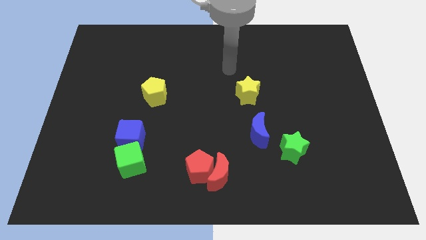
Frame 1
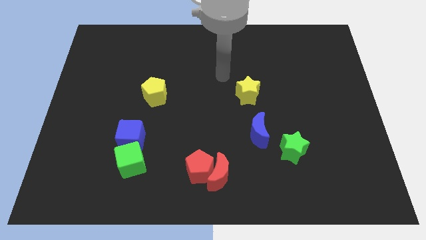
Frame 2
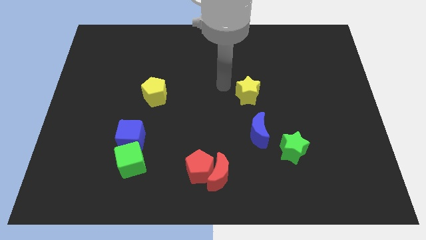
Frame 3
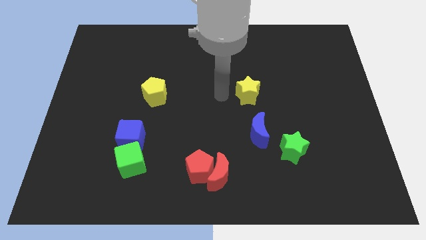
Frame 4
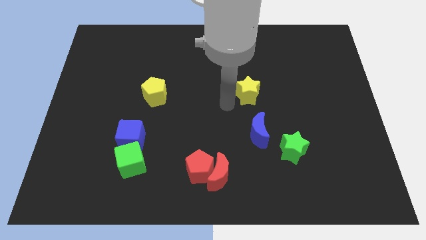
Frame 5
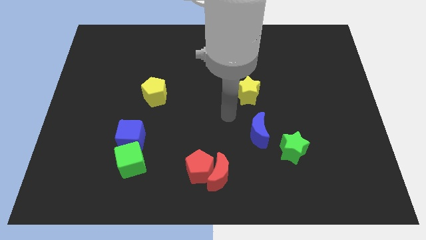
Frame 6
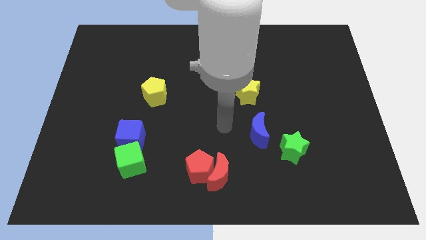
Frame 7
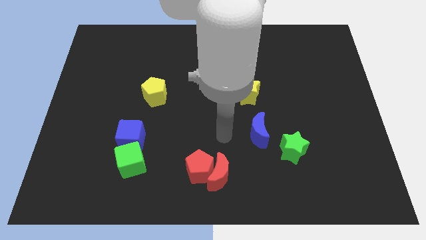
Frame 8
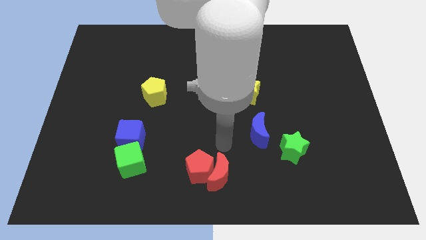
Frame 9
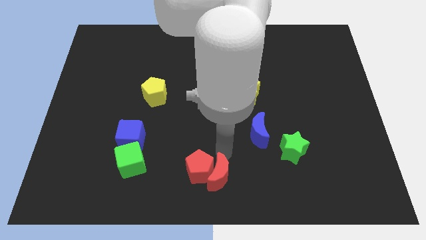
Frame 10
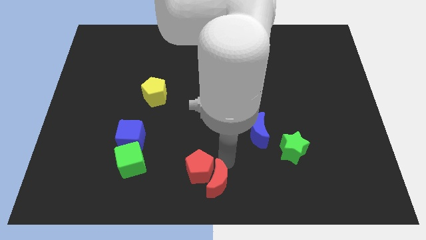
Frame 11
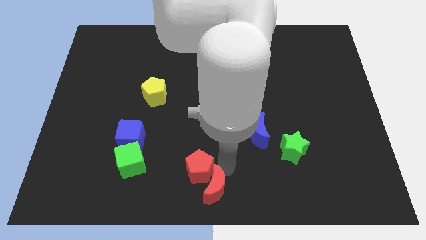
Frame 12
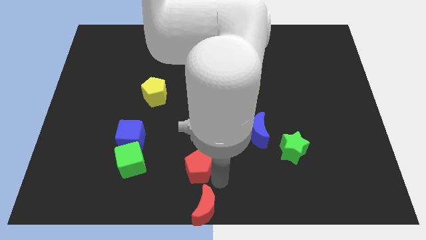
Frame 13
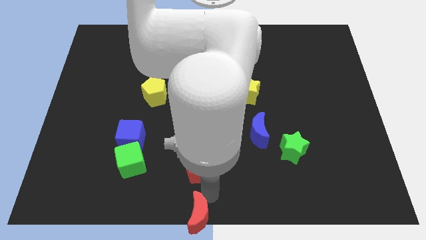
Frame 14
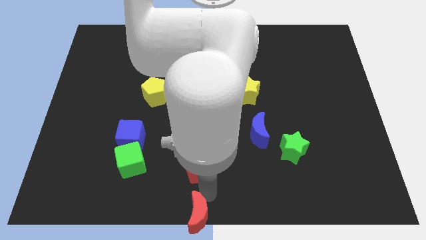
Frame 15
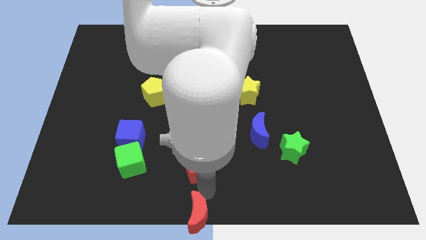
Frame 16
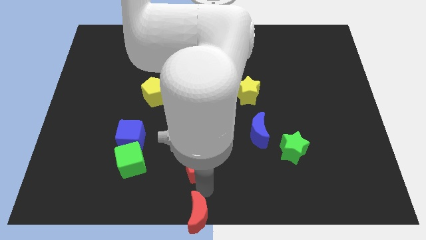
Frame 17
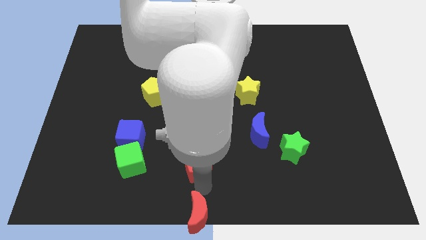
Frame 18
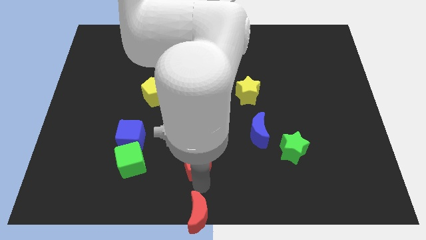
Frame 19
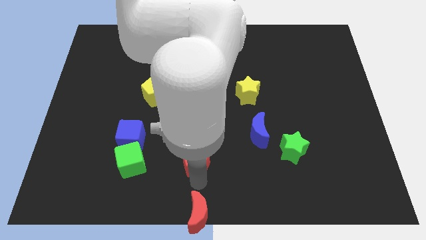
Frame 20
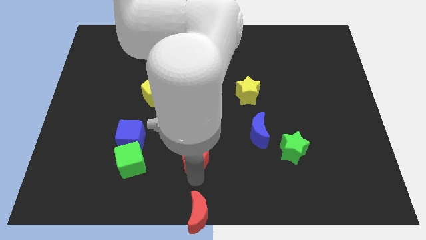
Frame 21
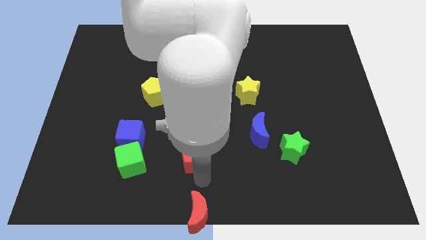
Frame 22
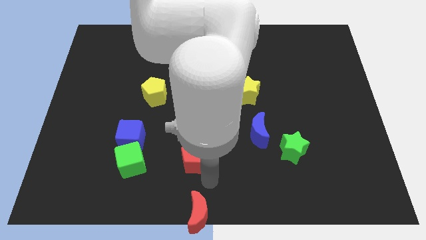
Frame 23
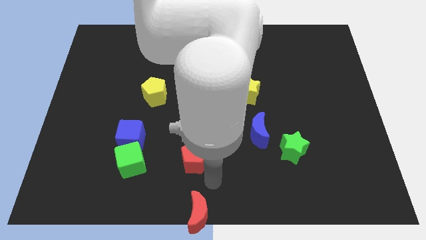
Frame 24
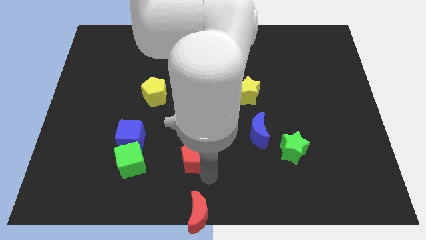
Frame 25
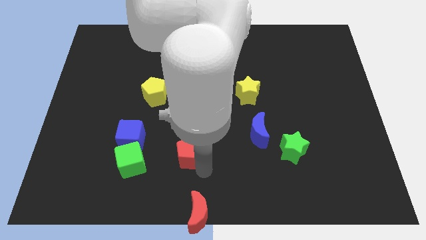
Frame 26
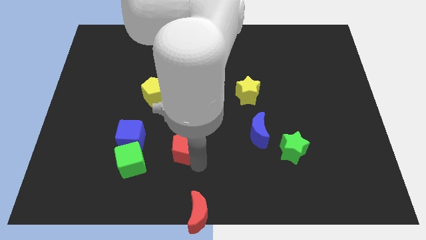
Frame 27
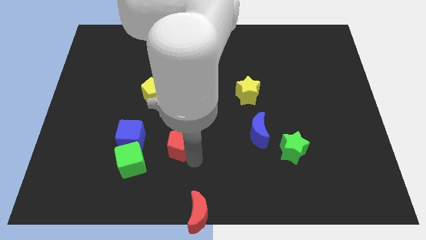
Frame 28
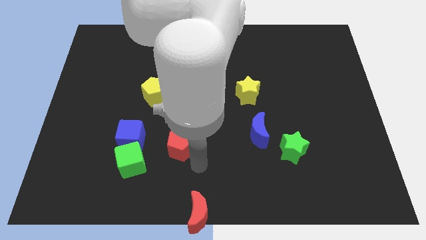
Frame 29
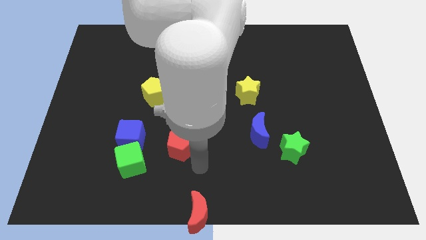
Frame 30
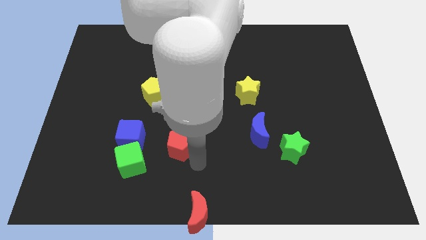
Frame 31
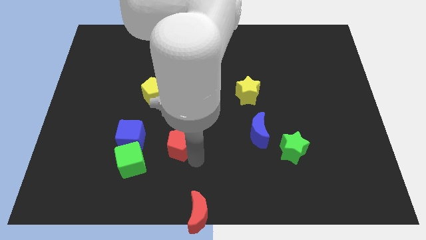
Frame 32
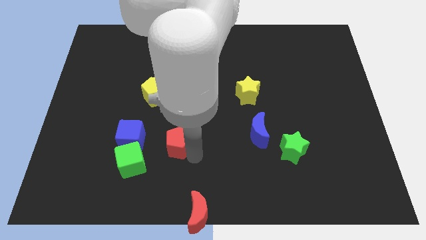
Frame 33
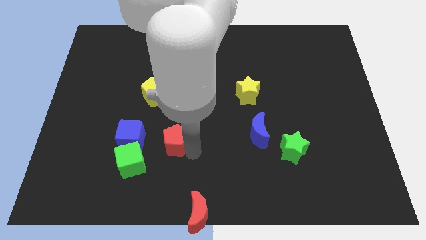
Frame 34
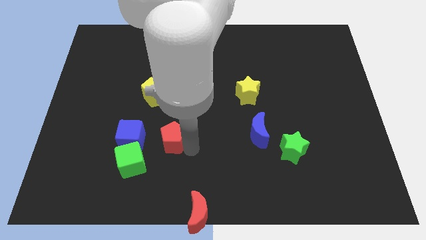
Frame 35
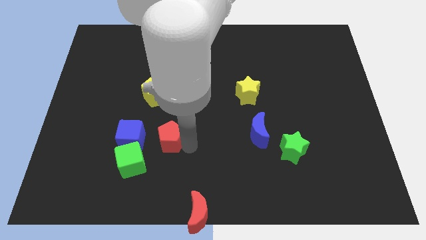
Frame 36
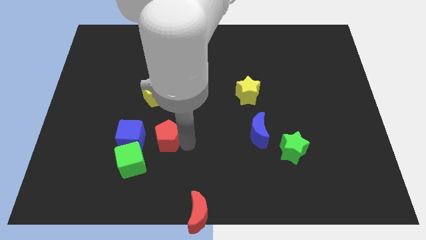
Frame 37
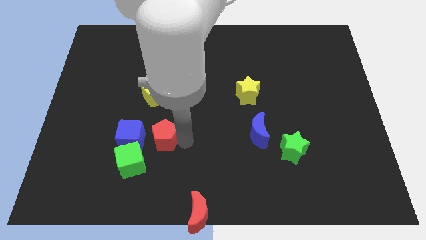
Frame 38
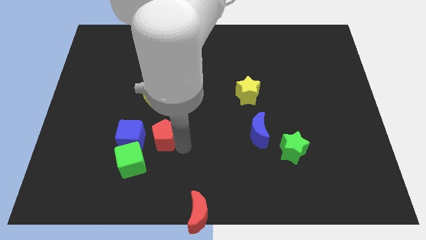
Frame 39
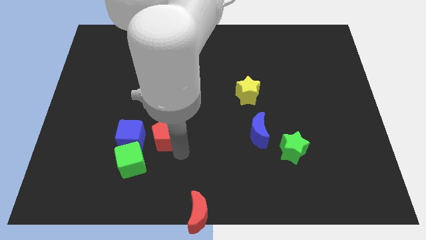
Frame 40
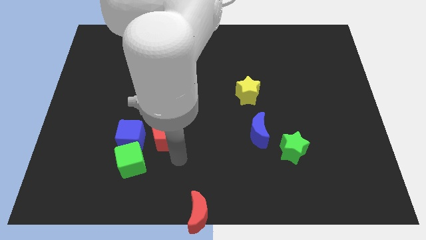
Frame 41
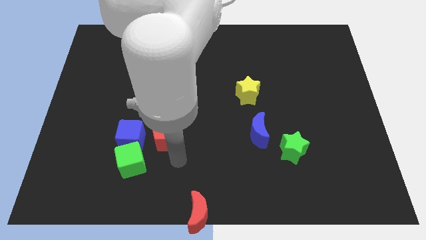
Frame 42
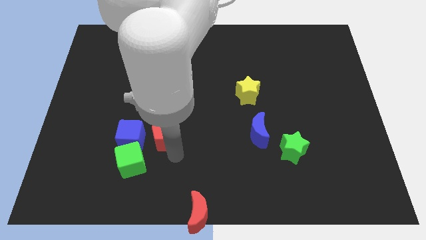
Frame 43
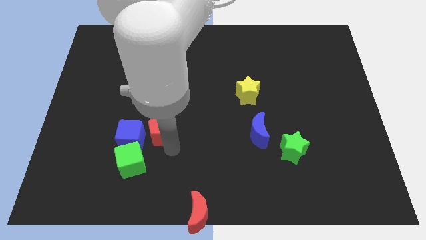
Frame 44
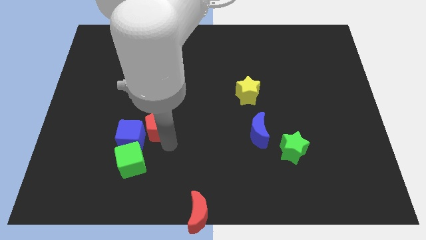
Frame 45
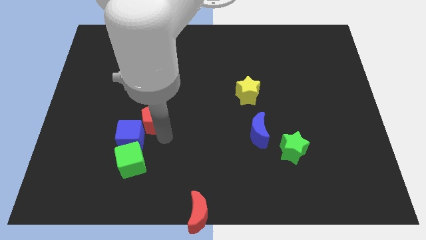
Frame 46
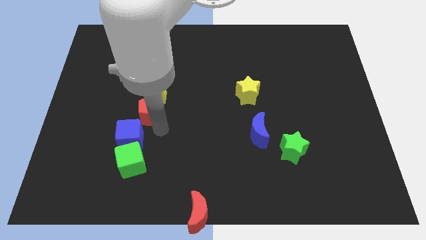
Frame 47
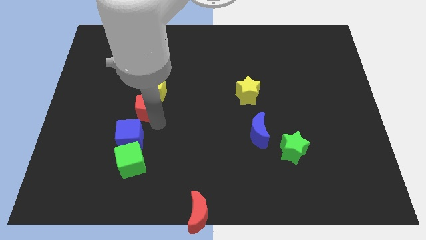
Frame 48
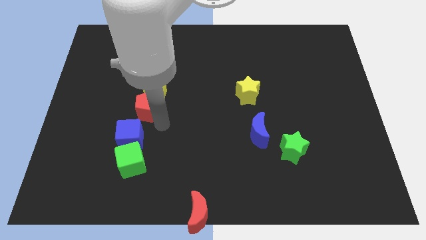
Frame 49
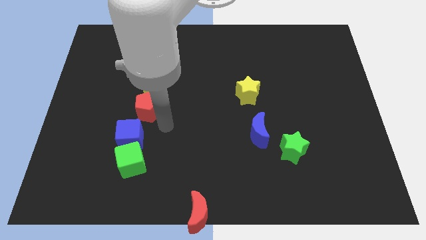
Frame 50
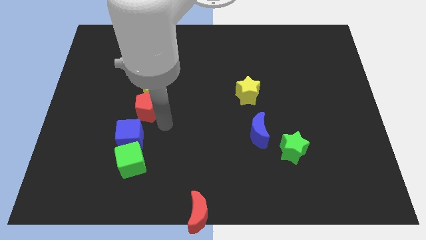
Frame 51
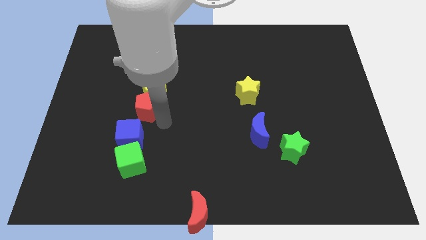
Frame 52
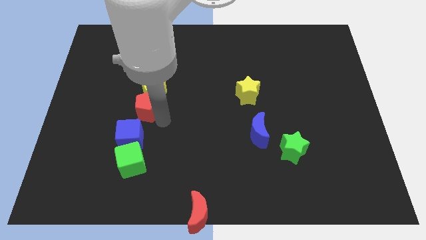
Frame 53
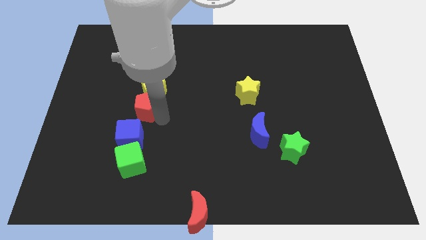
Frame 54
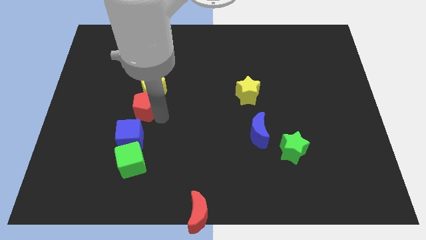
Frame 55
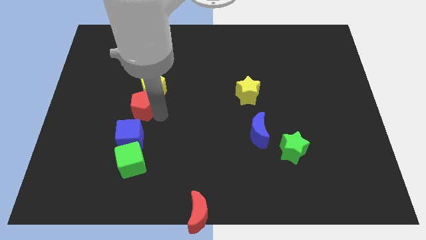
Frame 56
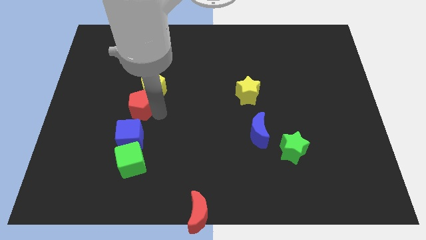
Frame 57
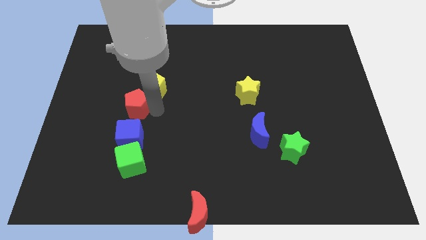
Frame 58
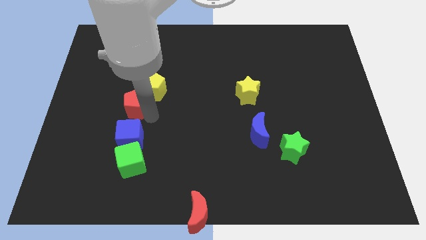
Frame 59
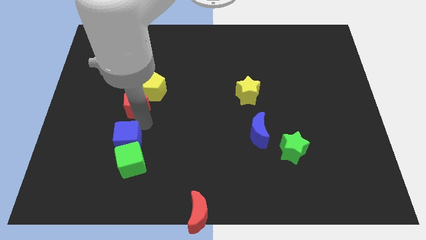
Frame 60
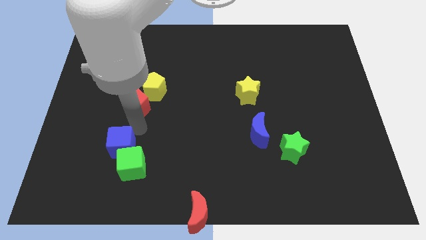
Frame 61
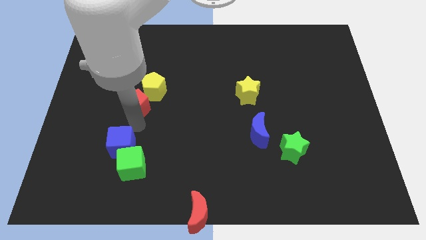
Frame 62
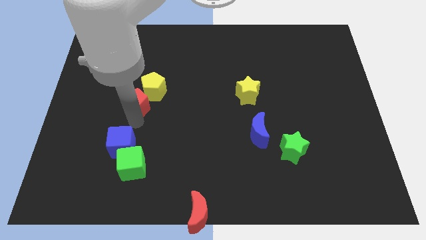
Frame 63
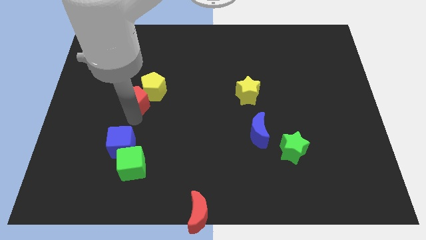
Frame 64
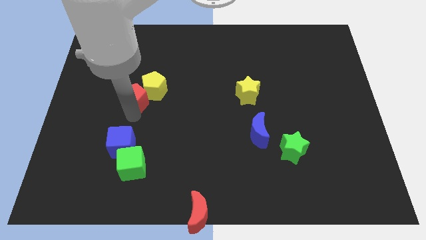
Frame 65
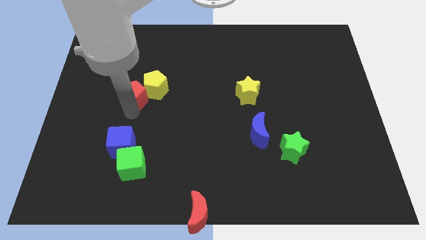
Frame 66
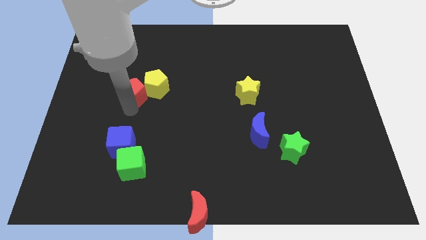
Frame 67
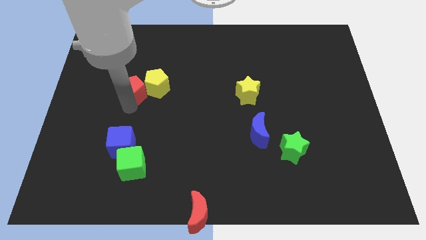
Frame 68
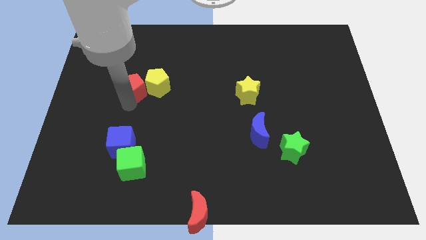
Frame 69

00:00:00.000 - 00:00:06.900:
slide the red pentagon diagonally up and to the left of the yellow pentagon

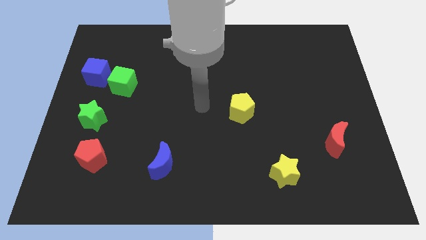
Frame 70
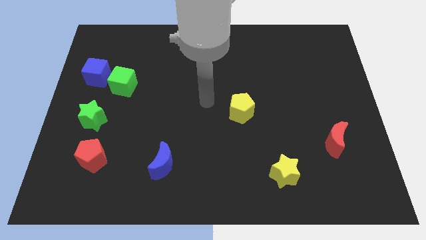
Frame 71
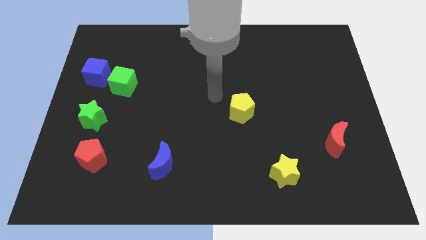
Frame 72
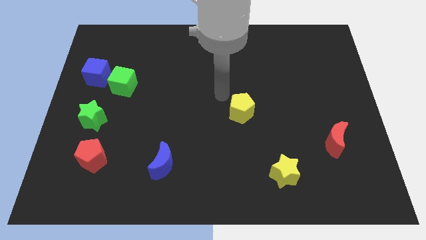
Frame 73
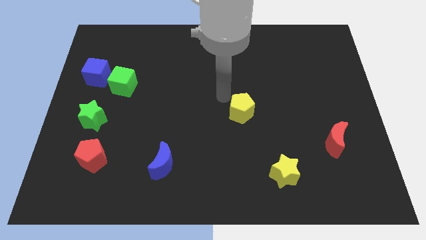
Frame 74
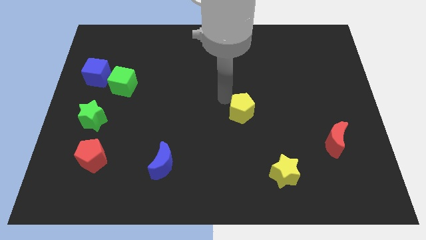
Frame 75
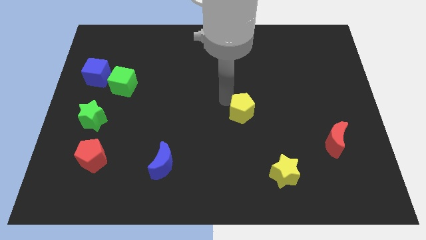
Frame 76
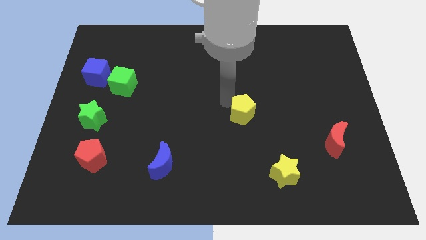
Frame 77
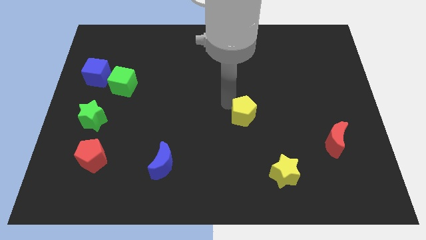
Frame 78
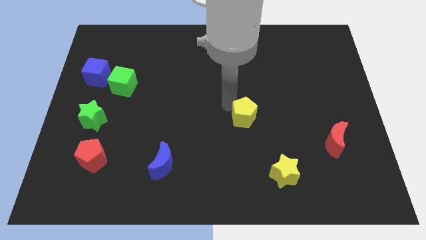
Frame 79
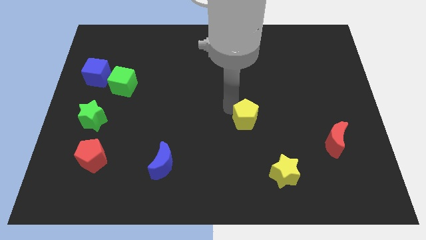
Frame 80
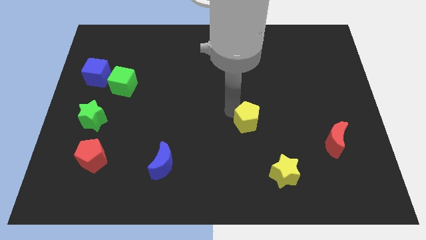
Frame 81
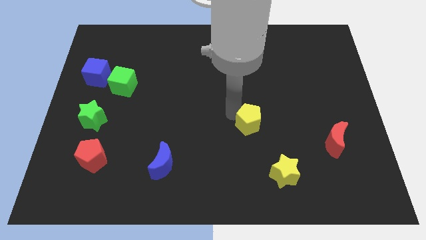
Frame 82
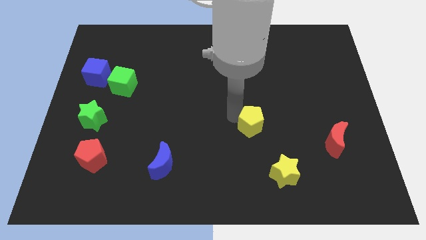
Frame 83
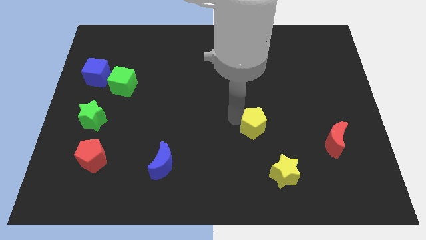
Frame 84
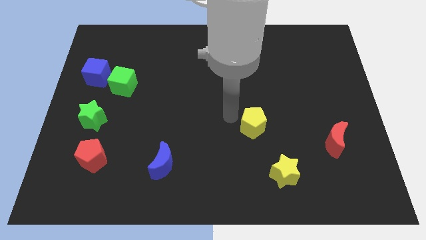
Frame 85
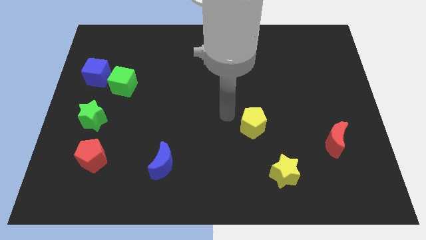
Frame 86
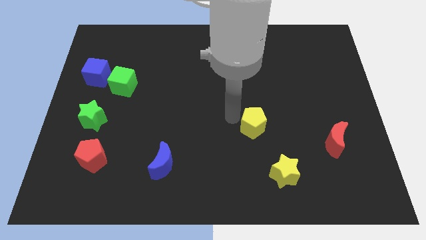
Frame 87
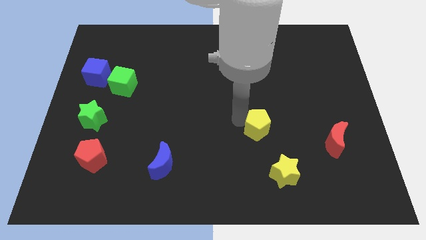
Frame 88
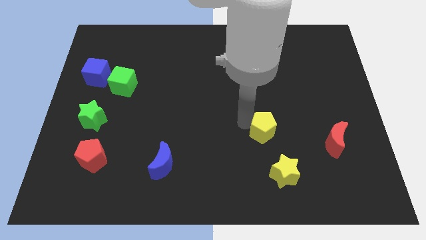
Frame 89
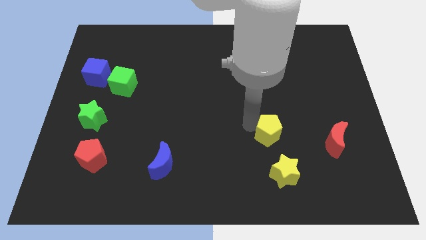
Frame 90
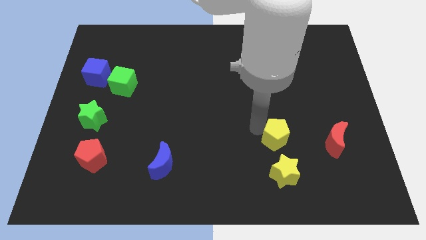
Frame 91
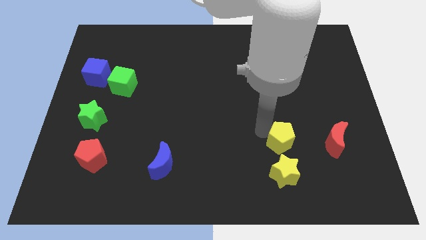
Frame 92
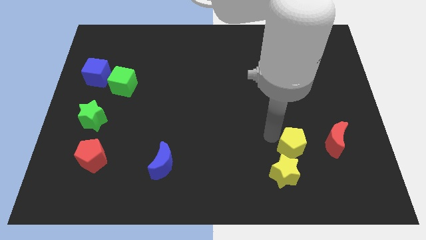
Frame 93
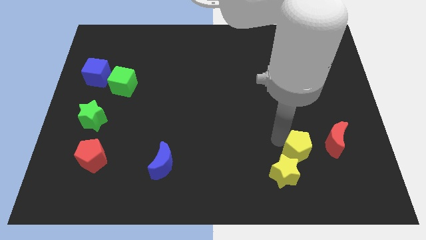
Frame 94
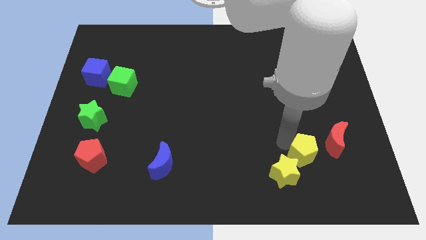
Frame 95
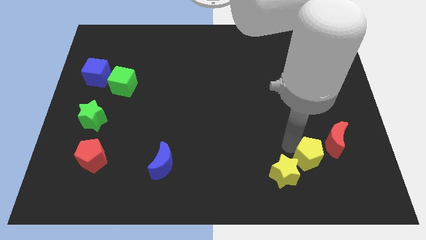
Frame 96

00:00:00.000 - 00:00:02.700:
move the yellow pentagon to the right of the yellow star
